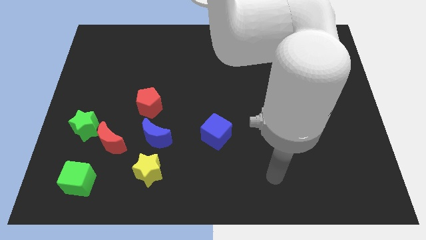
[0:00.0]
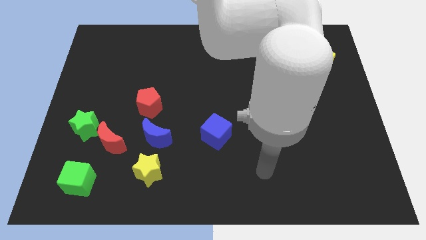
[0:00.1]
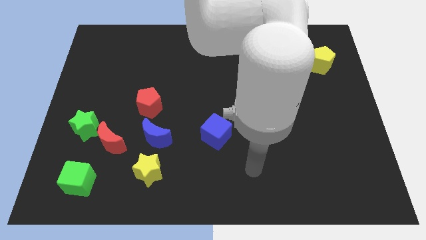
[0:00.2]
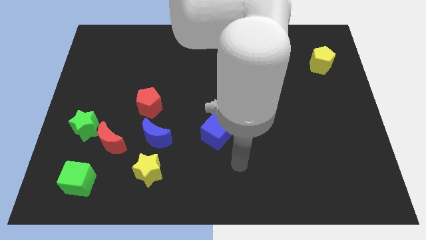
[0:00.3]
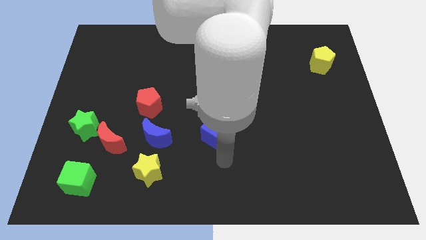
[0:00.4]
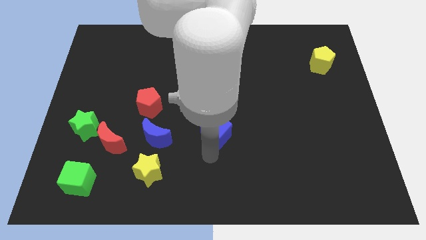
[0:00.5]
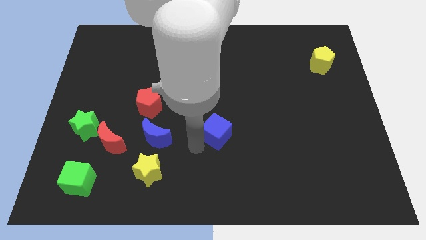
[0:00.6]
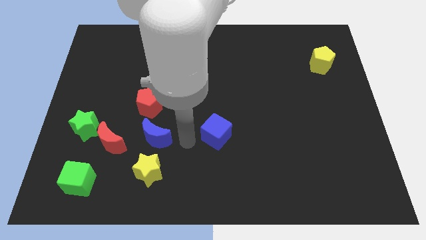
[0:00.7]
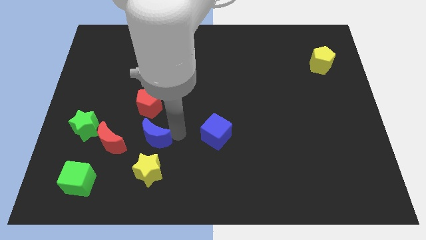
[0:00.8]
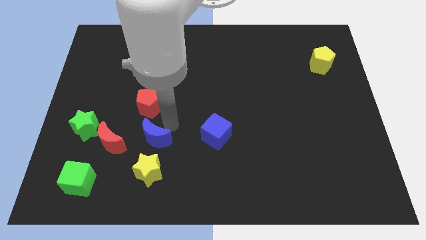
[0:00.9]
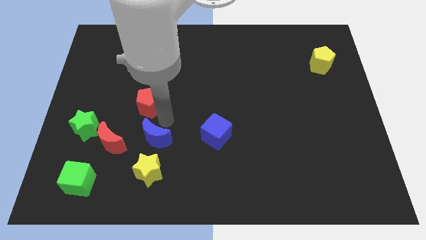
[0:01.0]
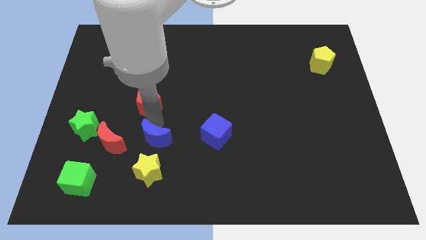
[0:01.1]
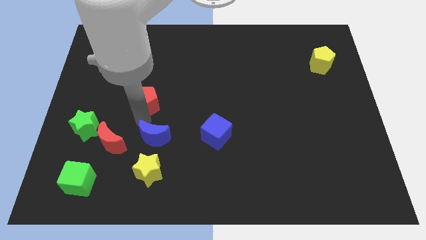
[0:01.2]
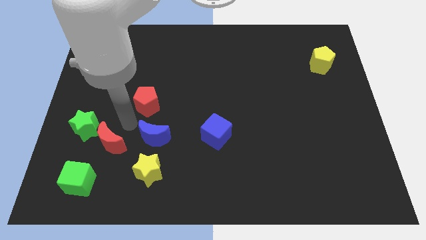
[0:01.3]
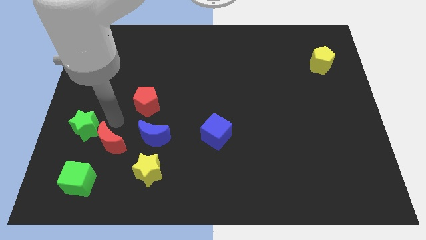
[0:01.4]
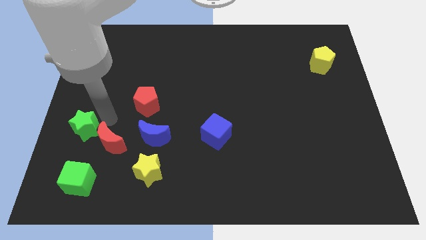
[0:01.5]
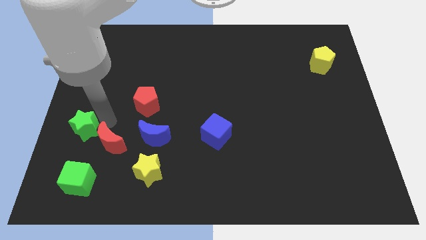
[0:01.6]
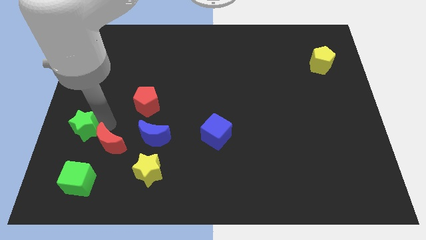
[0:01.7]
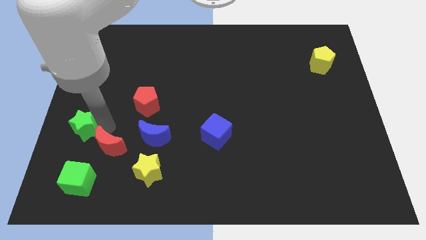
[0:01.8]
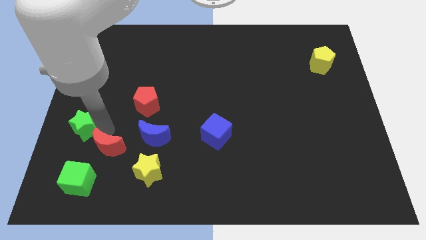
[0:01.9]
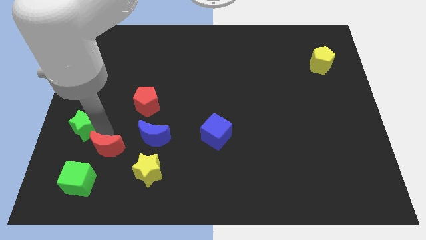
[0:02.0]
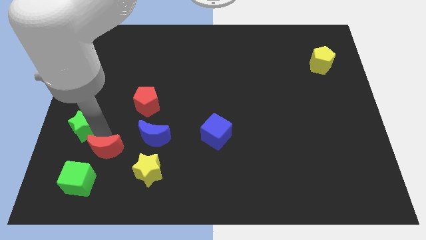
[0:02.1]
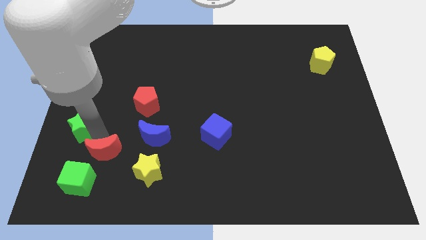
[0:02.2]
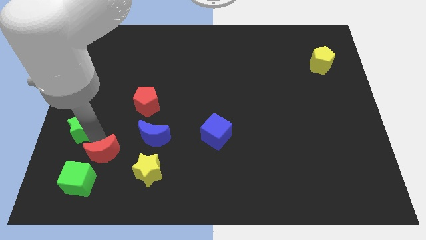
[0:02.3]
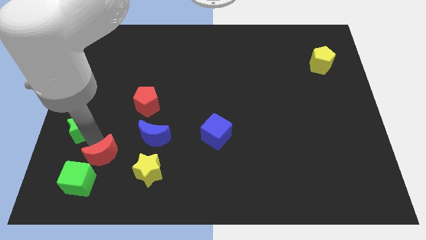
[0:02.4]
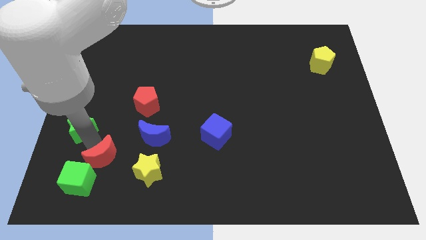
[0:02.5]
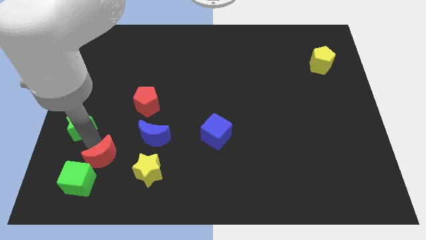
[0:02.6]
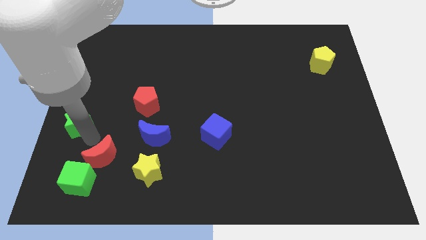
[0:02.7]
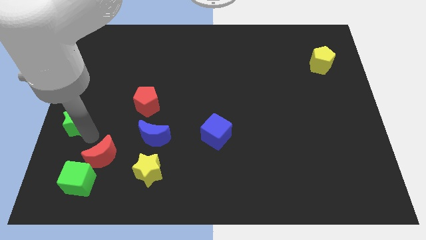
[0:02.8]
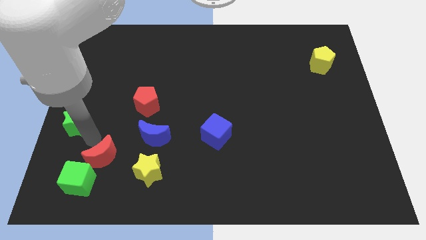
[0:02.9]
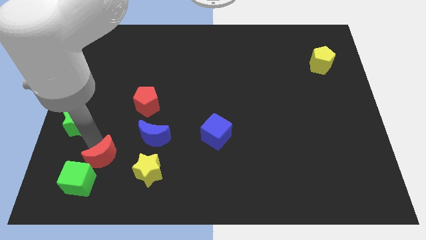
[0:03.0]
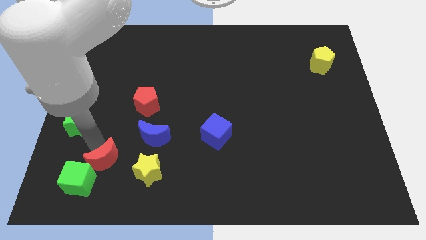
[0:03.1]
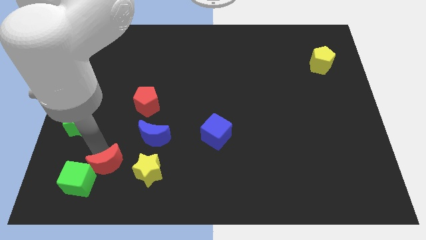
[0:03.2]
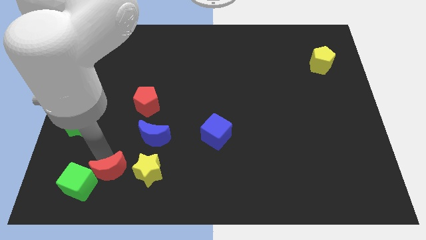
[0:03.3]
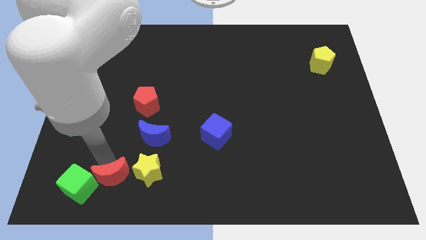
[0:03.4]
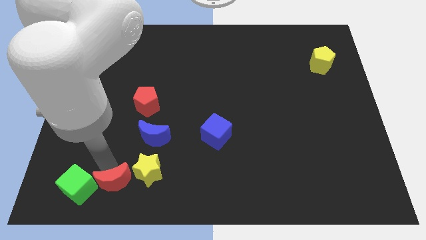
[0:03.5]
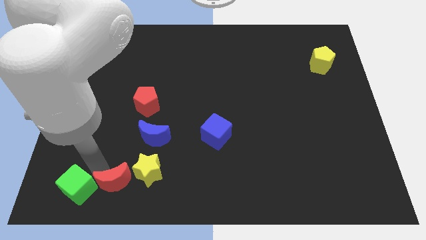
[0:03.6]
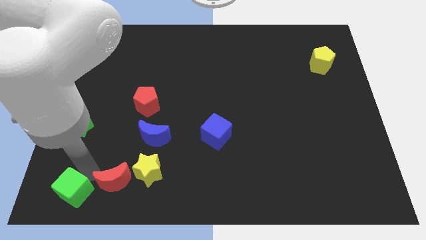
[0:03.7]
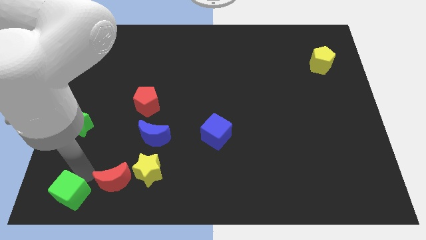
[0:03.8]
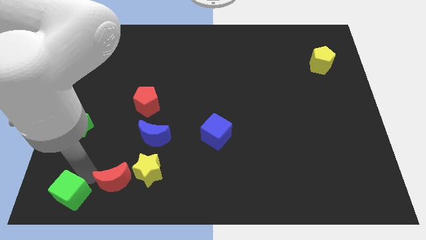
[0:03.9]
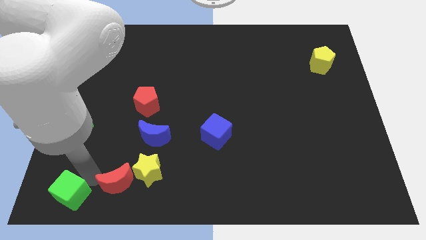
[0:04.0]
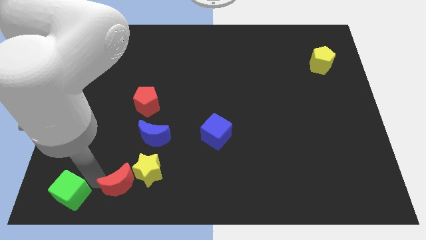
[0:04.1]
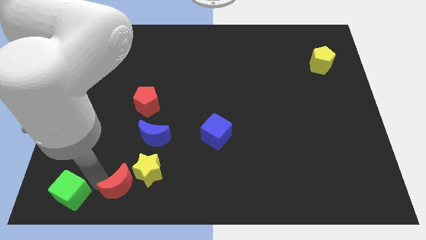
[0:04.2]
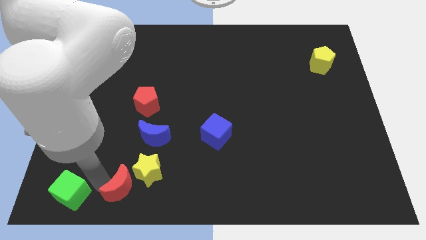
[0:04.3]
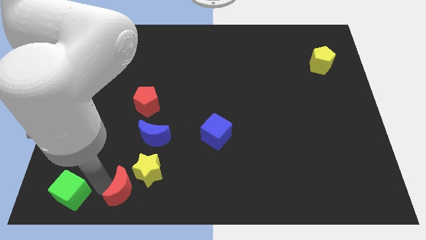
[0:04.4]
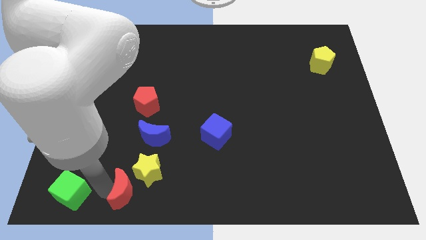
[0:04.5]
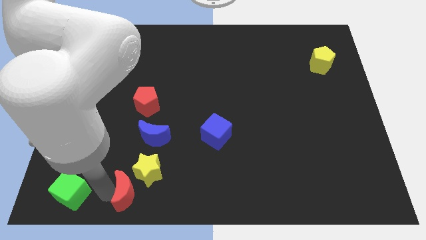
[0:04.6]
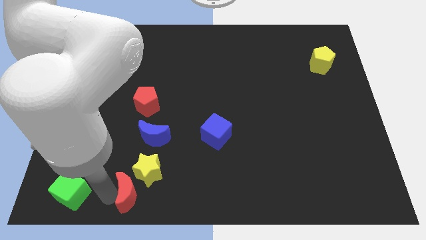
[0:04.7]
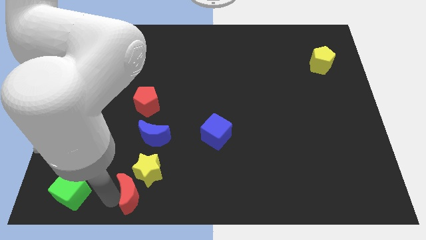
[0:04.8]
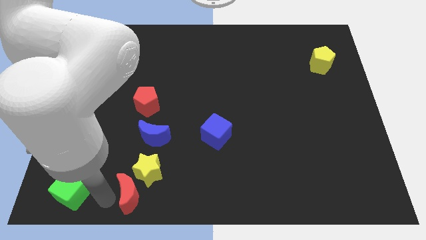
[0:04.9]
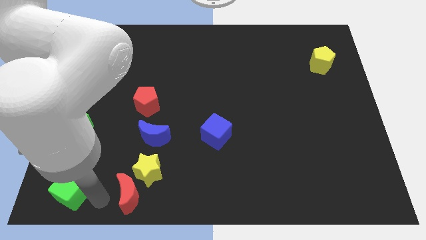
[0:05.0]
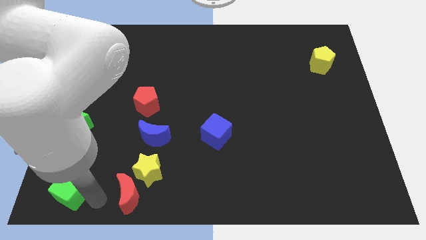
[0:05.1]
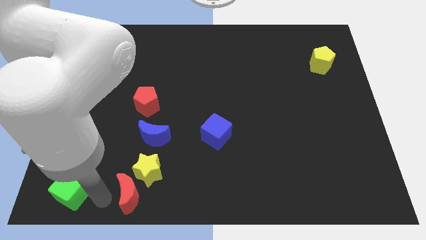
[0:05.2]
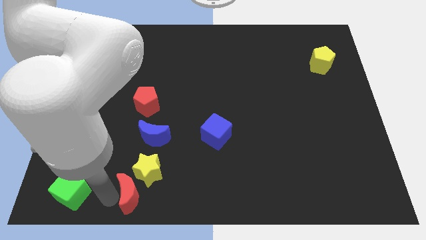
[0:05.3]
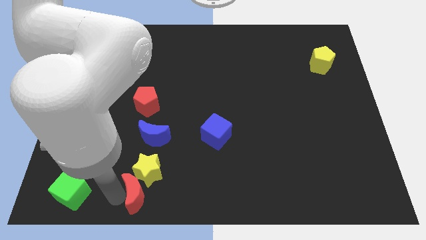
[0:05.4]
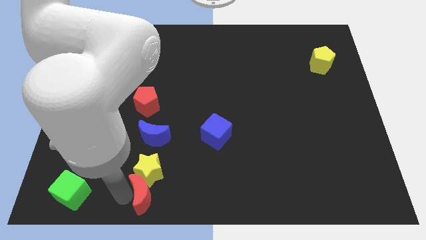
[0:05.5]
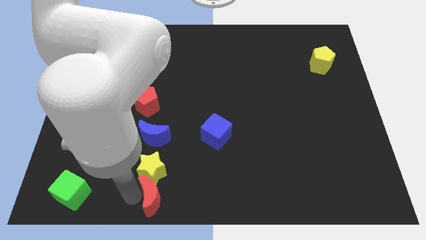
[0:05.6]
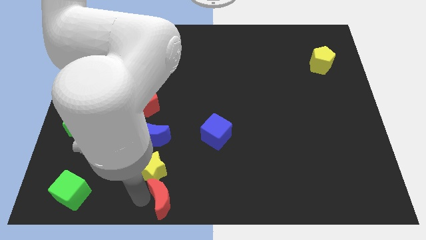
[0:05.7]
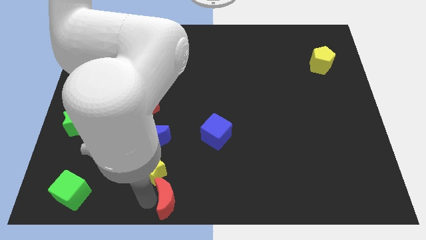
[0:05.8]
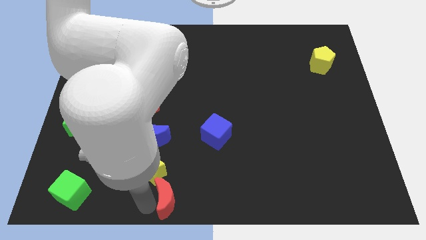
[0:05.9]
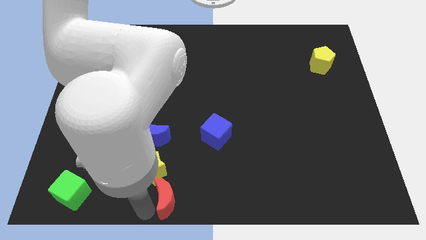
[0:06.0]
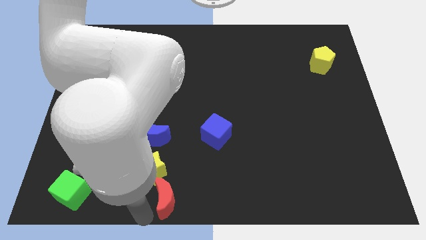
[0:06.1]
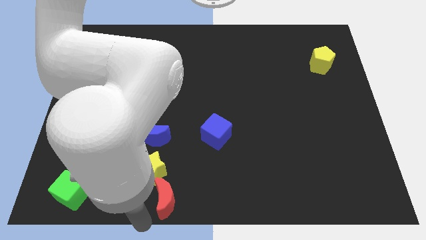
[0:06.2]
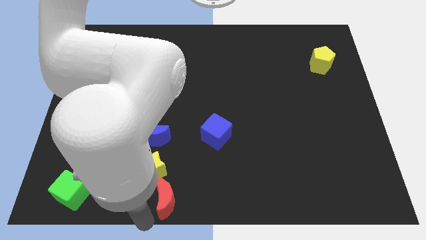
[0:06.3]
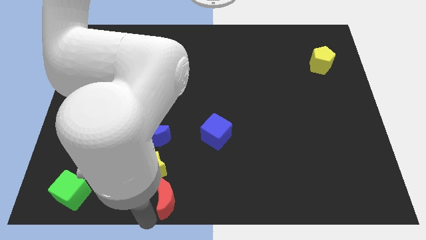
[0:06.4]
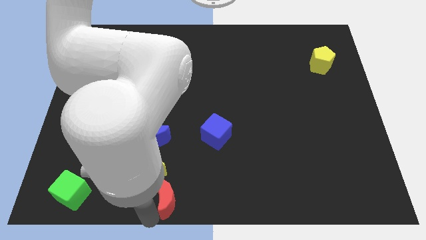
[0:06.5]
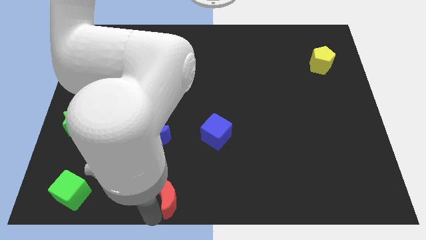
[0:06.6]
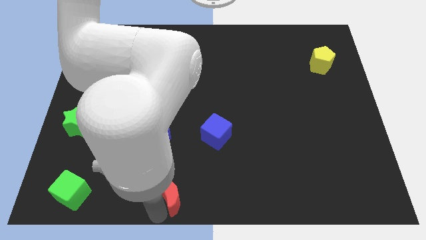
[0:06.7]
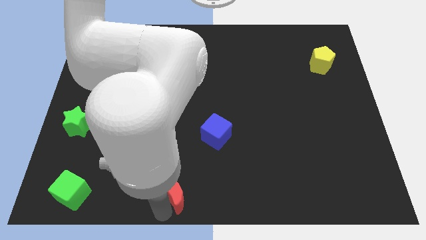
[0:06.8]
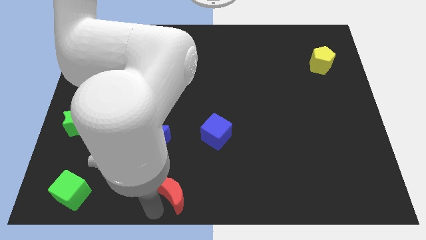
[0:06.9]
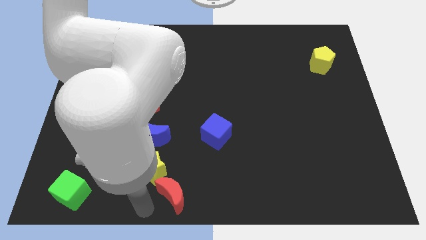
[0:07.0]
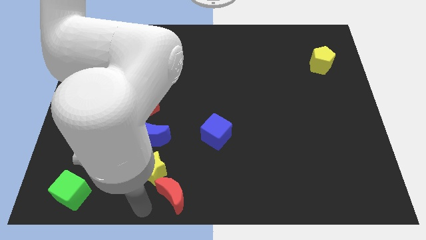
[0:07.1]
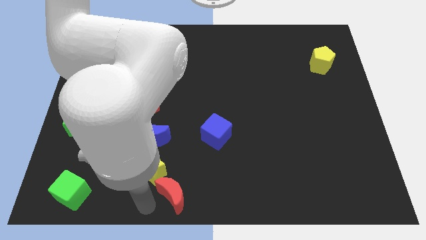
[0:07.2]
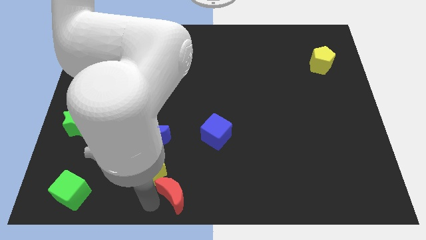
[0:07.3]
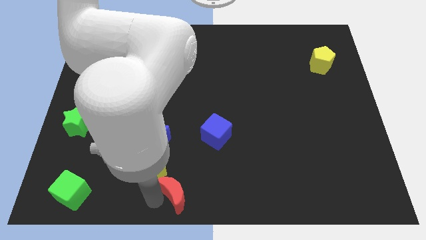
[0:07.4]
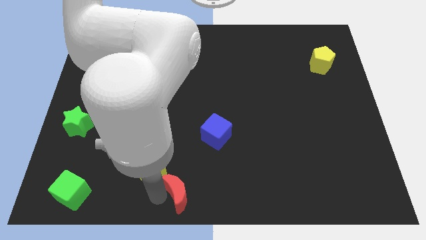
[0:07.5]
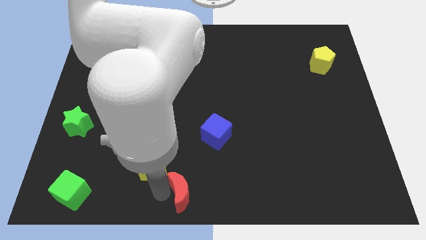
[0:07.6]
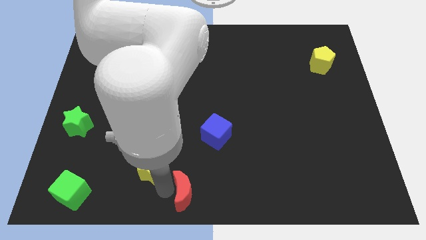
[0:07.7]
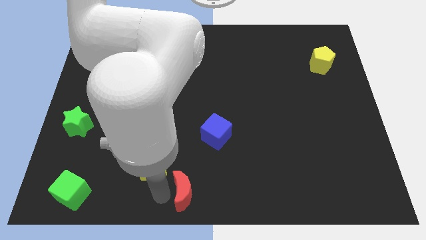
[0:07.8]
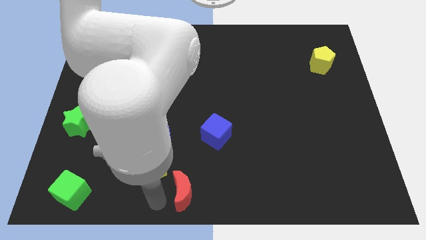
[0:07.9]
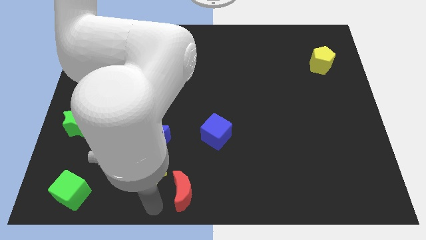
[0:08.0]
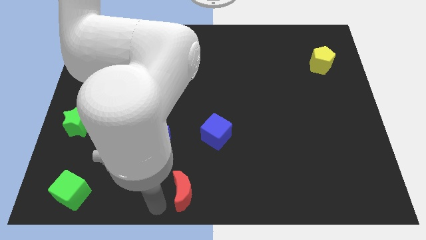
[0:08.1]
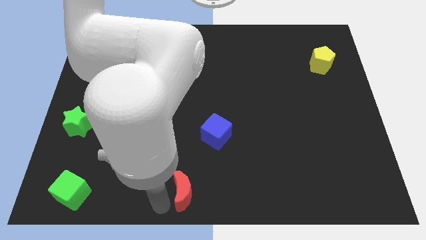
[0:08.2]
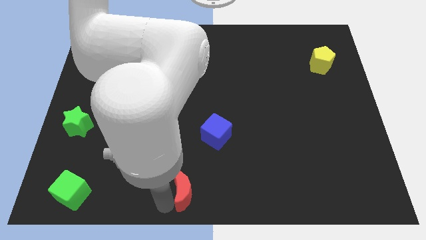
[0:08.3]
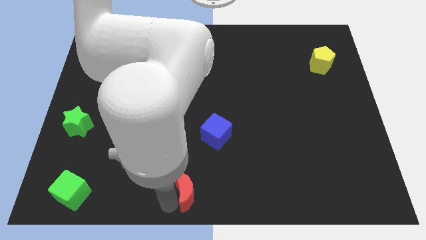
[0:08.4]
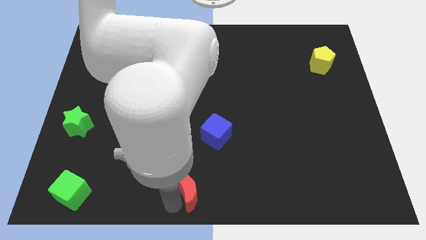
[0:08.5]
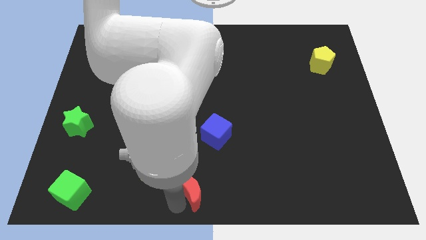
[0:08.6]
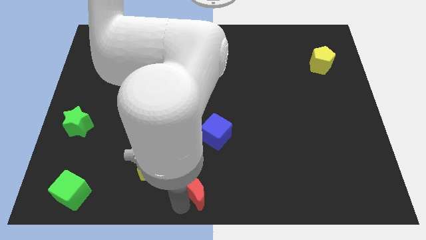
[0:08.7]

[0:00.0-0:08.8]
put the red moon below the blue cube
